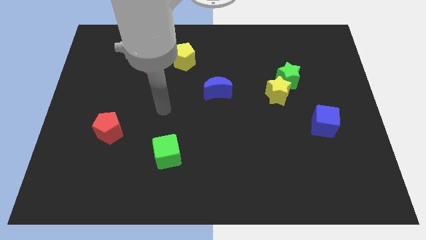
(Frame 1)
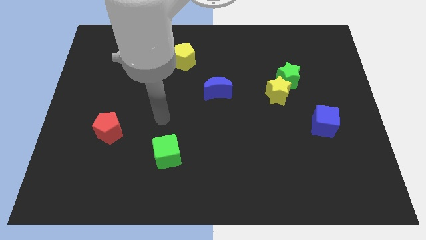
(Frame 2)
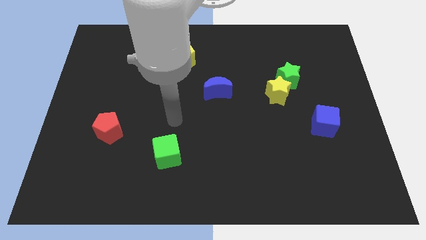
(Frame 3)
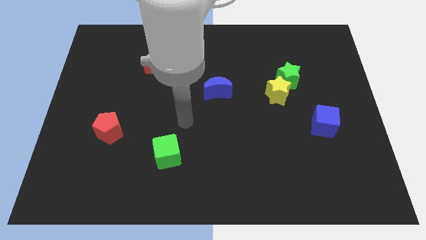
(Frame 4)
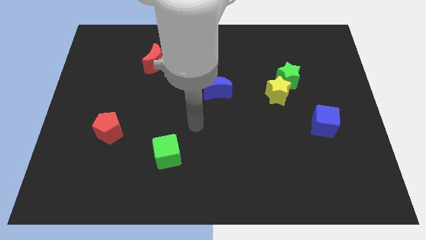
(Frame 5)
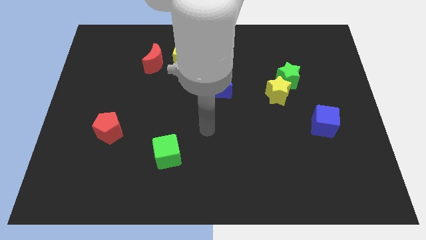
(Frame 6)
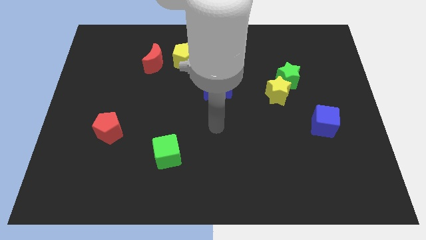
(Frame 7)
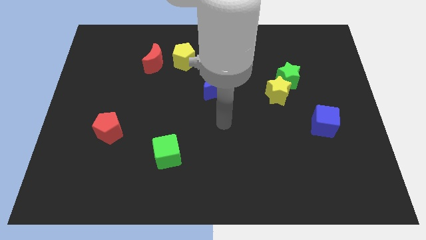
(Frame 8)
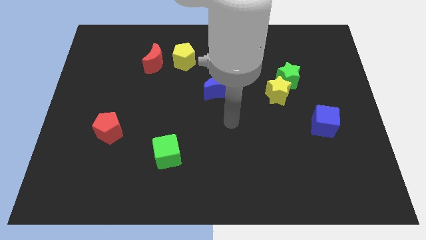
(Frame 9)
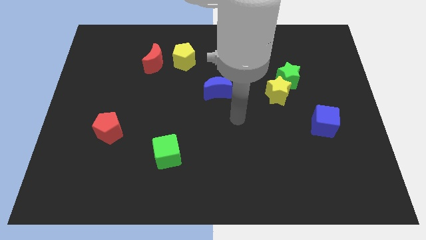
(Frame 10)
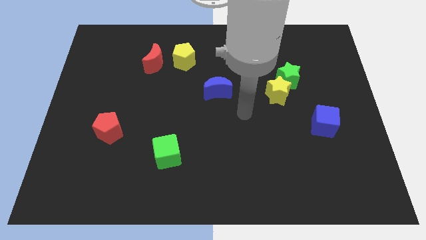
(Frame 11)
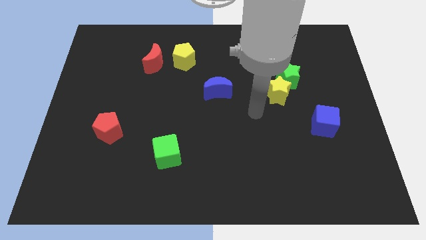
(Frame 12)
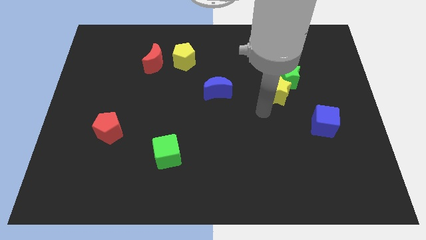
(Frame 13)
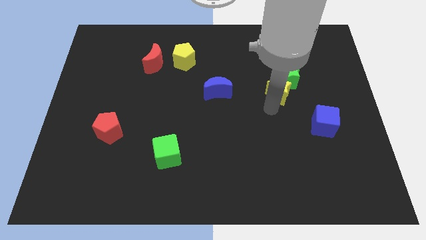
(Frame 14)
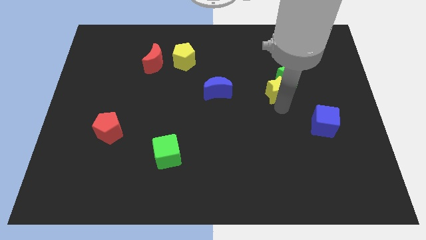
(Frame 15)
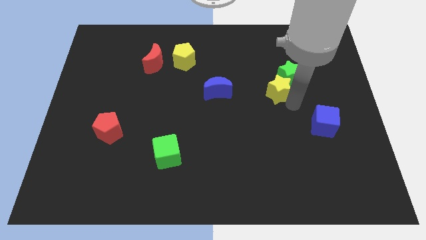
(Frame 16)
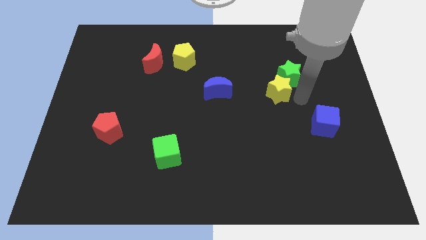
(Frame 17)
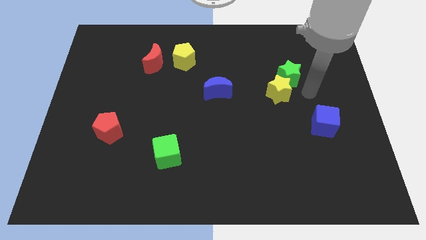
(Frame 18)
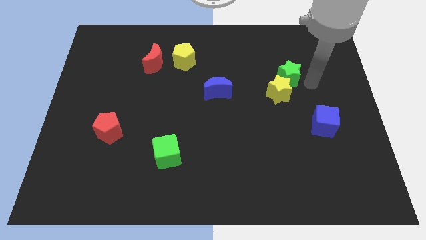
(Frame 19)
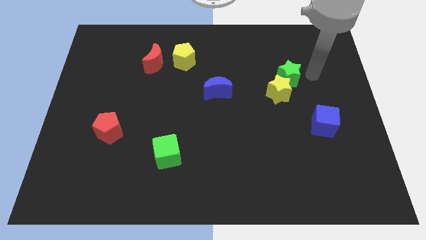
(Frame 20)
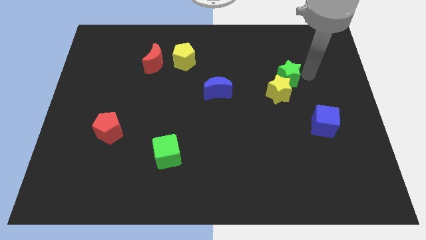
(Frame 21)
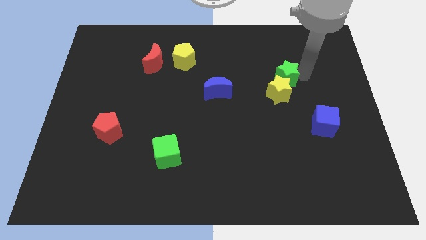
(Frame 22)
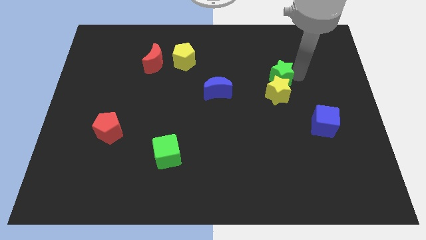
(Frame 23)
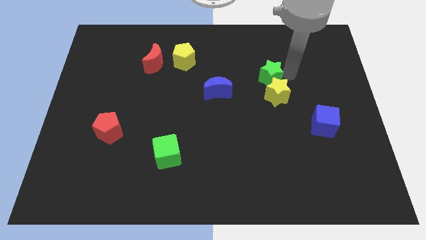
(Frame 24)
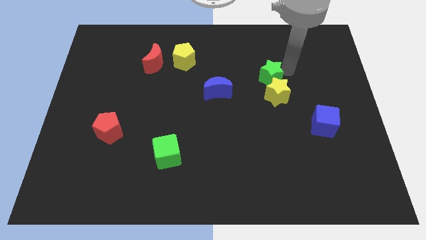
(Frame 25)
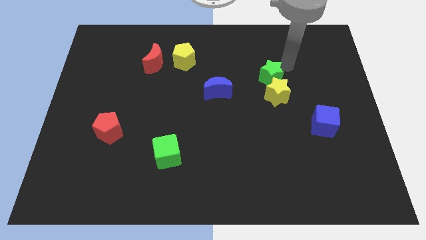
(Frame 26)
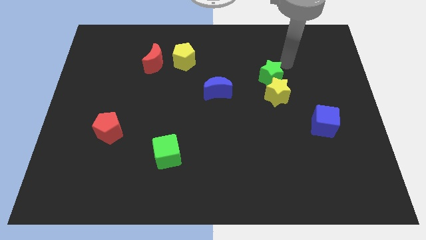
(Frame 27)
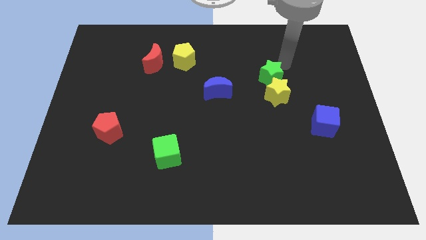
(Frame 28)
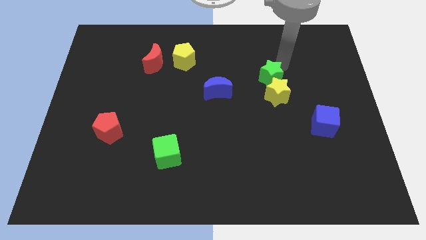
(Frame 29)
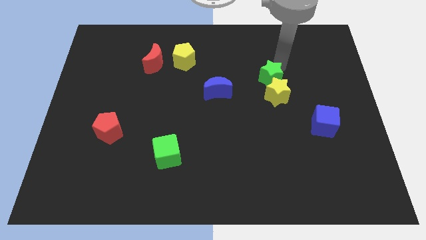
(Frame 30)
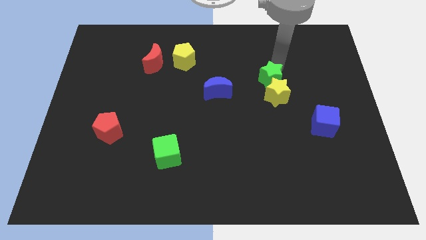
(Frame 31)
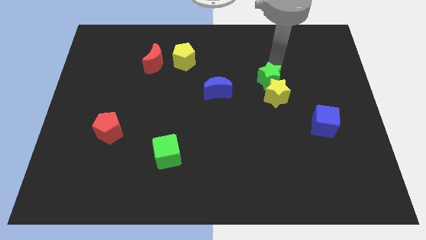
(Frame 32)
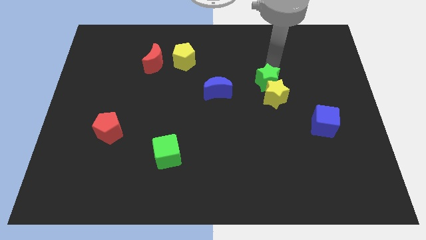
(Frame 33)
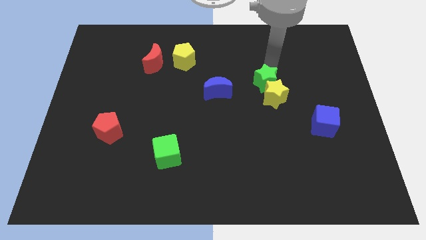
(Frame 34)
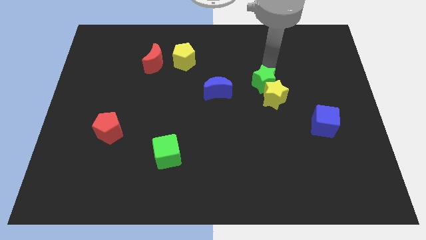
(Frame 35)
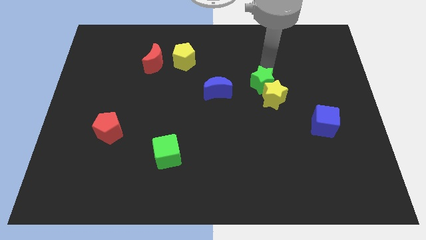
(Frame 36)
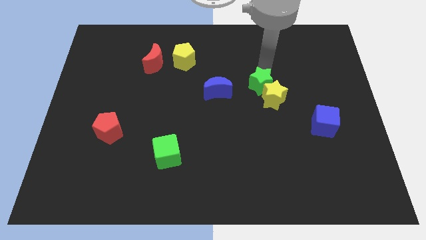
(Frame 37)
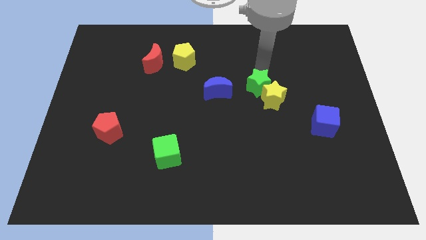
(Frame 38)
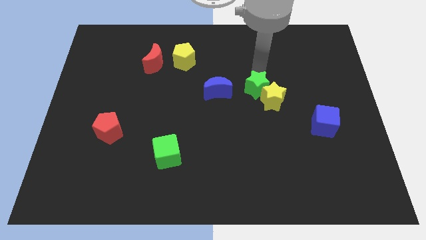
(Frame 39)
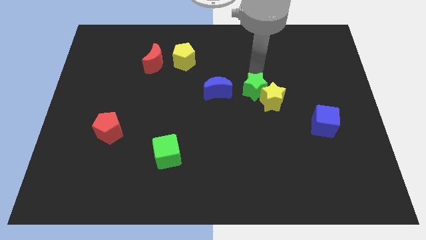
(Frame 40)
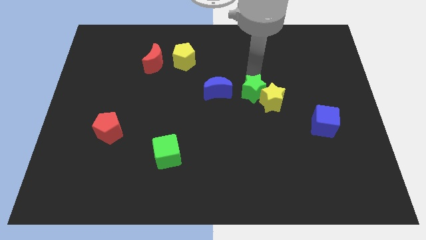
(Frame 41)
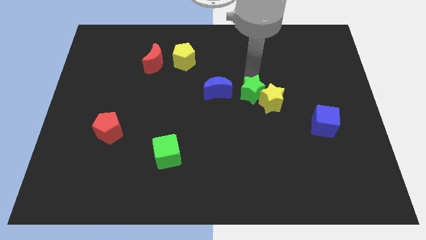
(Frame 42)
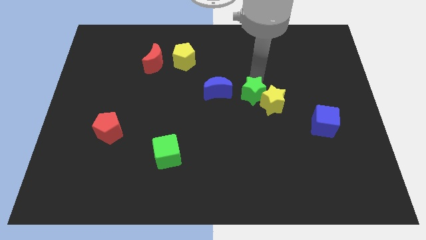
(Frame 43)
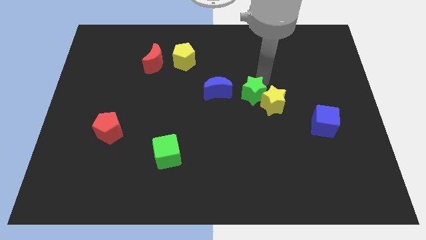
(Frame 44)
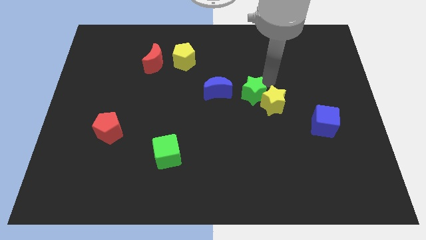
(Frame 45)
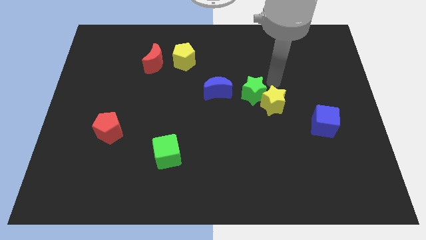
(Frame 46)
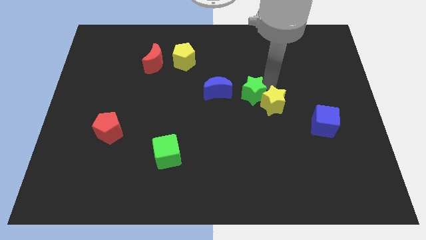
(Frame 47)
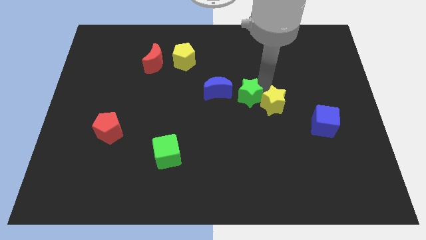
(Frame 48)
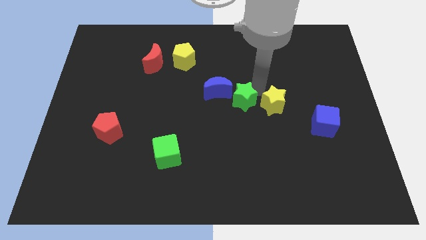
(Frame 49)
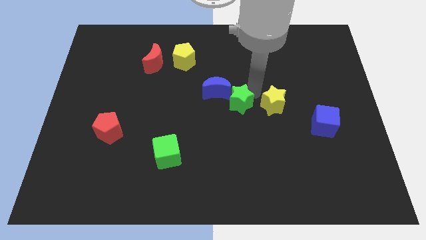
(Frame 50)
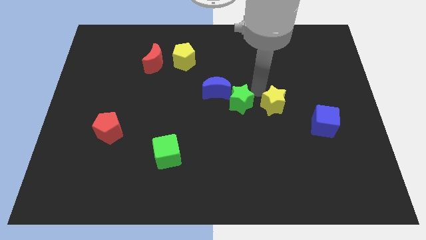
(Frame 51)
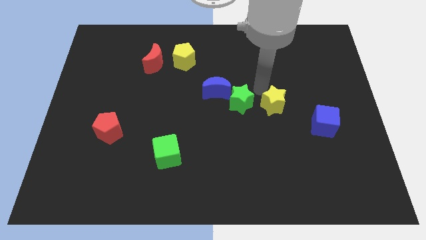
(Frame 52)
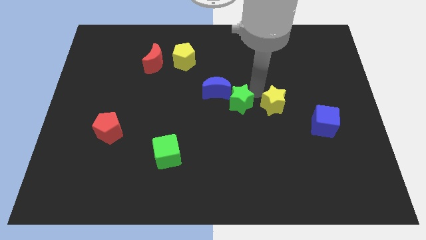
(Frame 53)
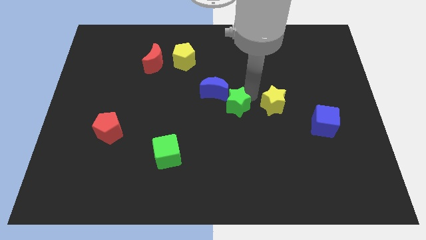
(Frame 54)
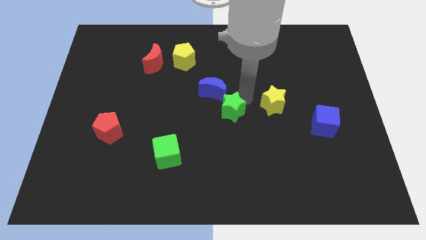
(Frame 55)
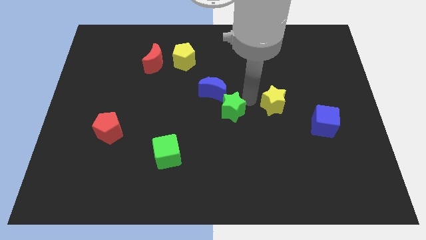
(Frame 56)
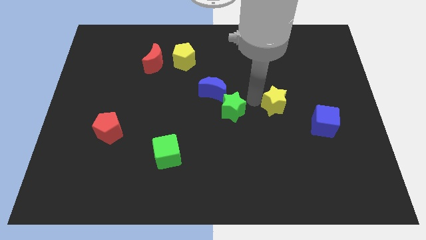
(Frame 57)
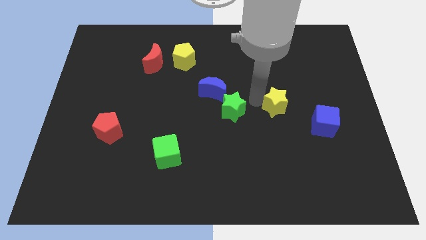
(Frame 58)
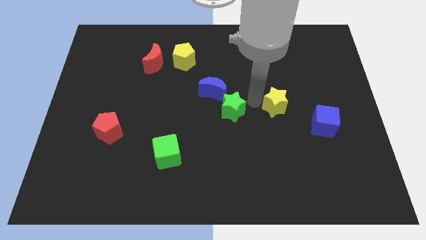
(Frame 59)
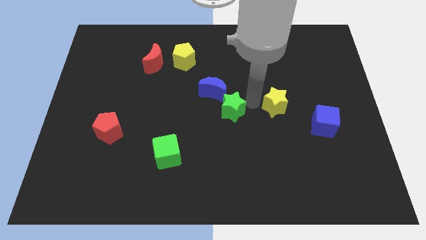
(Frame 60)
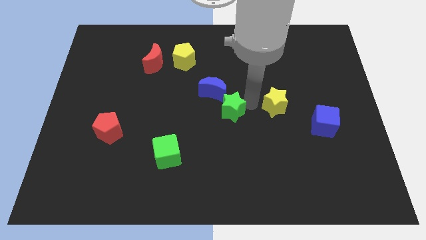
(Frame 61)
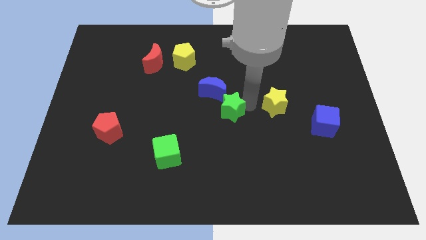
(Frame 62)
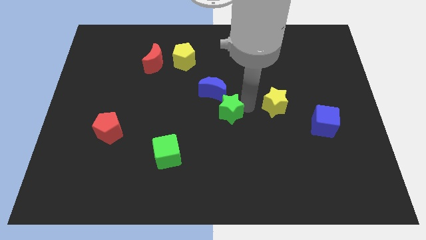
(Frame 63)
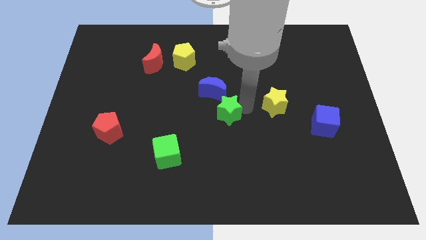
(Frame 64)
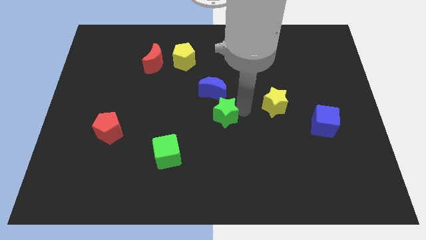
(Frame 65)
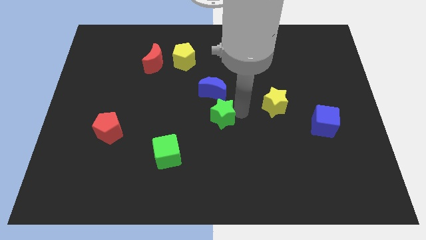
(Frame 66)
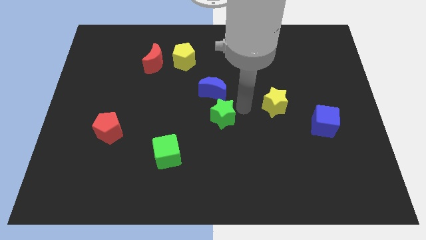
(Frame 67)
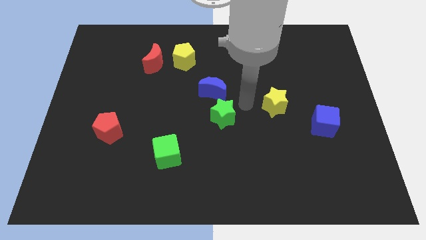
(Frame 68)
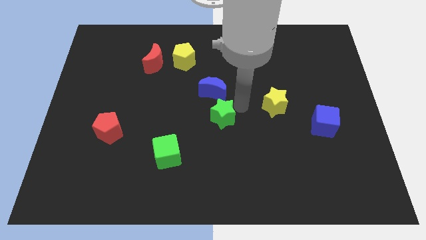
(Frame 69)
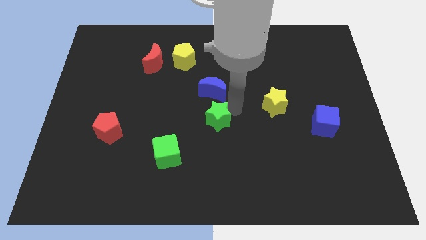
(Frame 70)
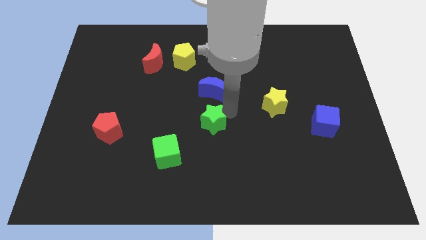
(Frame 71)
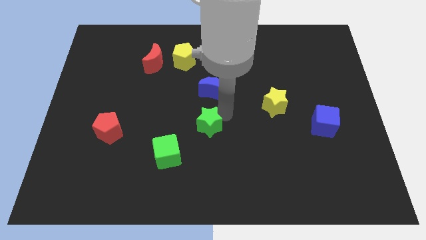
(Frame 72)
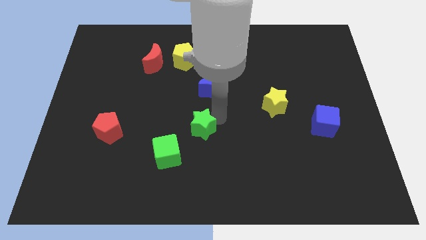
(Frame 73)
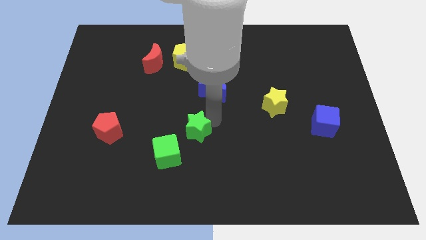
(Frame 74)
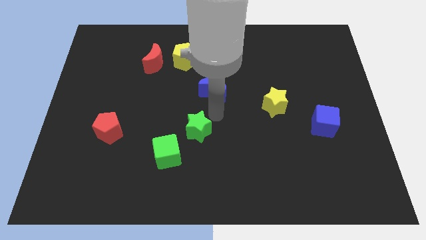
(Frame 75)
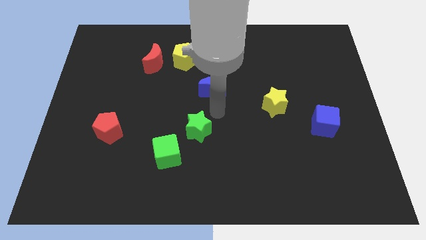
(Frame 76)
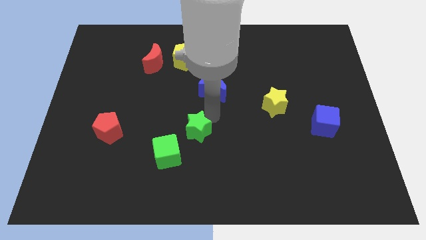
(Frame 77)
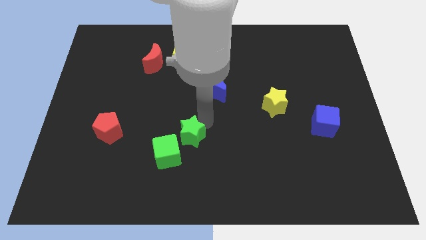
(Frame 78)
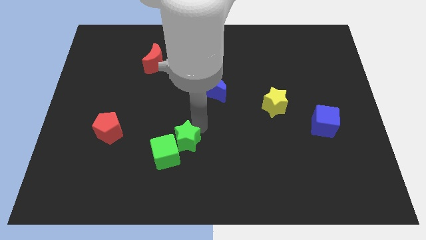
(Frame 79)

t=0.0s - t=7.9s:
put the green star close to the green cube

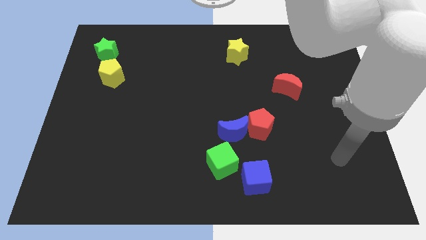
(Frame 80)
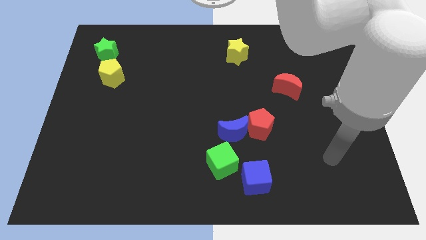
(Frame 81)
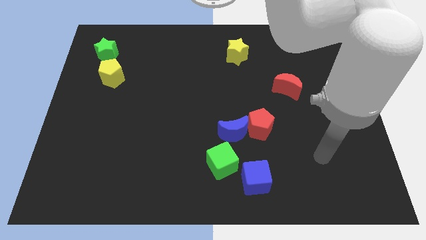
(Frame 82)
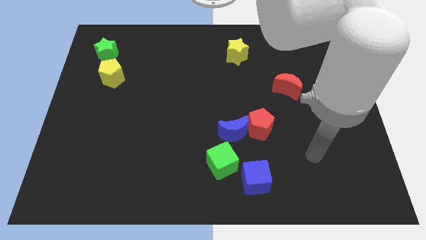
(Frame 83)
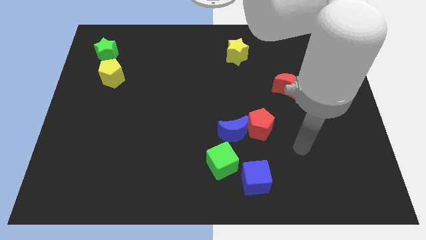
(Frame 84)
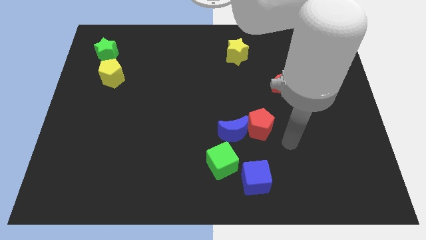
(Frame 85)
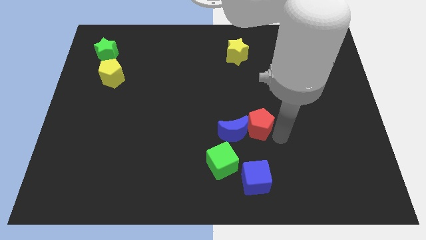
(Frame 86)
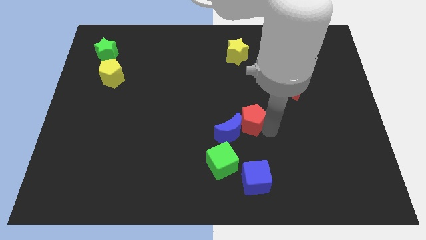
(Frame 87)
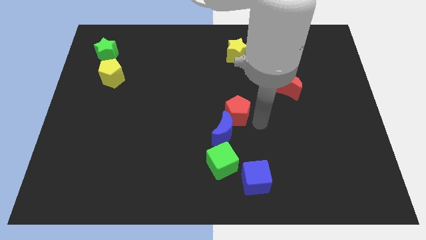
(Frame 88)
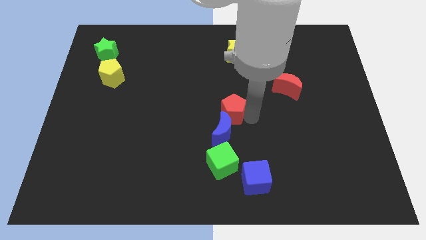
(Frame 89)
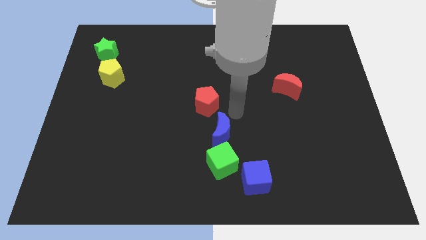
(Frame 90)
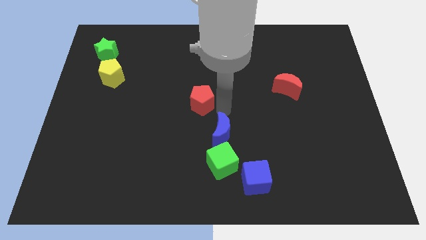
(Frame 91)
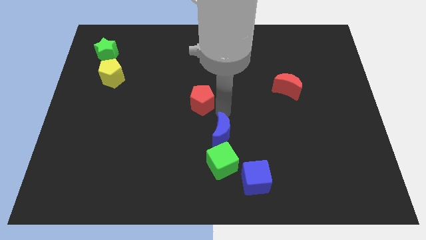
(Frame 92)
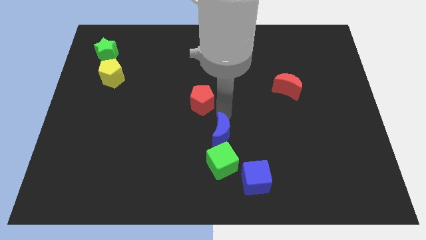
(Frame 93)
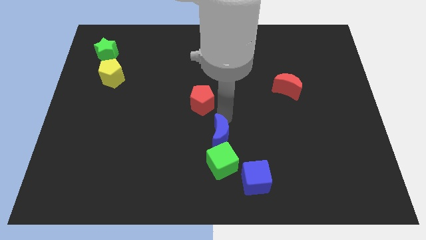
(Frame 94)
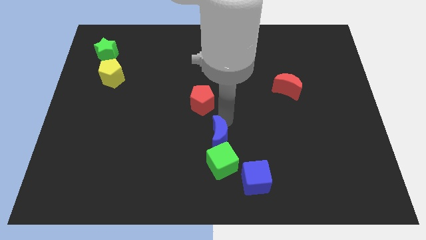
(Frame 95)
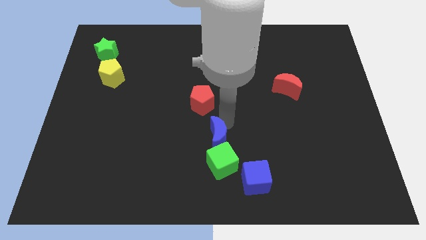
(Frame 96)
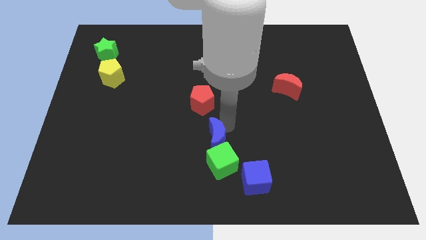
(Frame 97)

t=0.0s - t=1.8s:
move the blue moon towards the green cube
